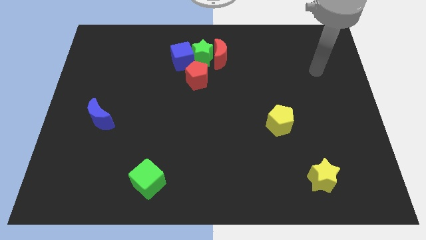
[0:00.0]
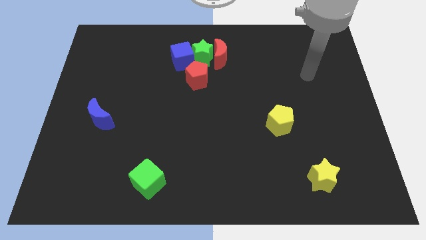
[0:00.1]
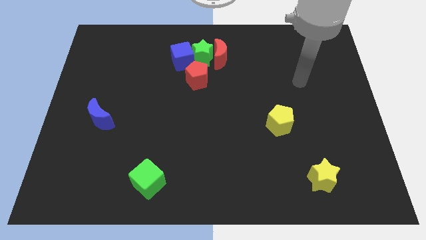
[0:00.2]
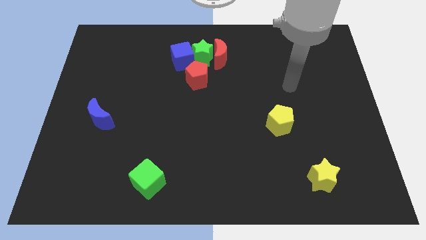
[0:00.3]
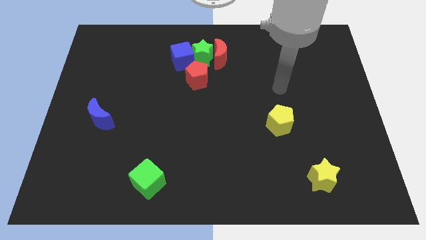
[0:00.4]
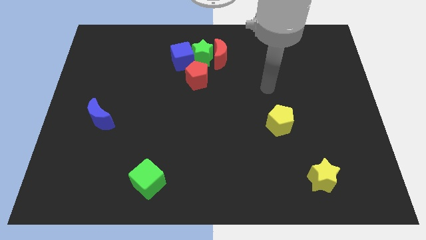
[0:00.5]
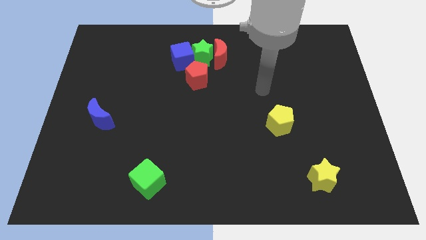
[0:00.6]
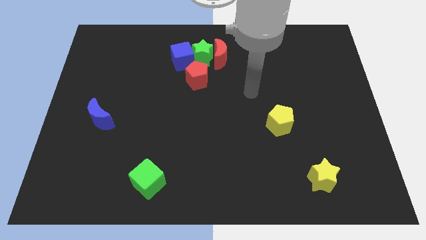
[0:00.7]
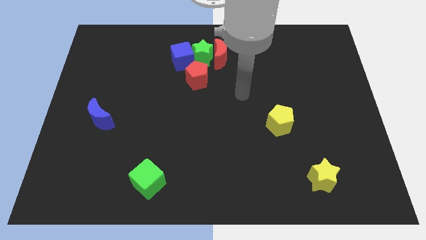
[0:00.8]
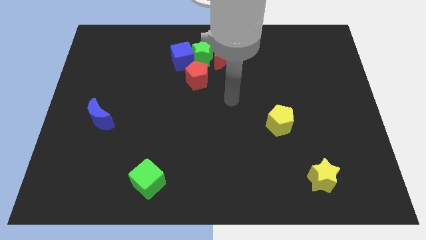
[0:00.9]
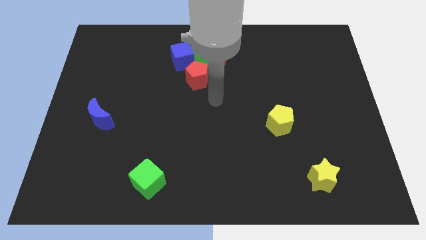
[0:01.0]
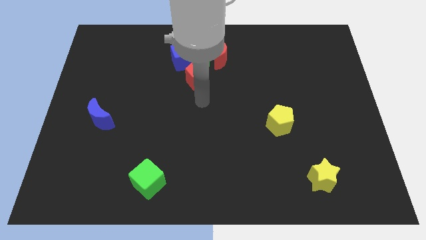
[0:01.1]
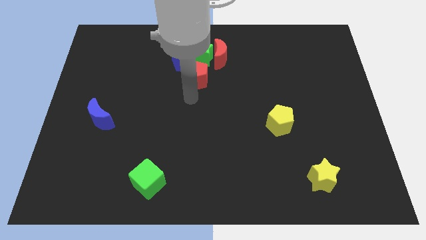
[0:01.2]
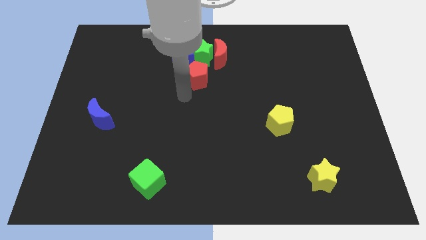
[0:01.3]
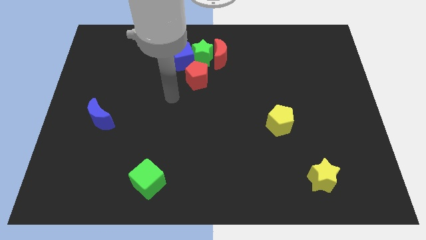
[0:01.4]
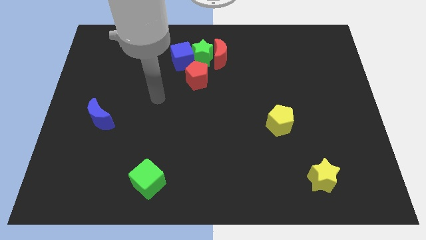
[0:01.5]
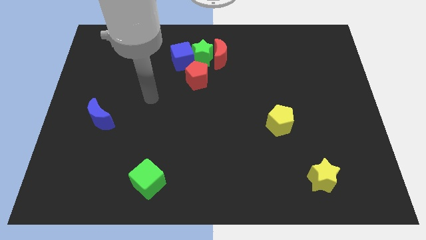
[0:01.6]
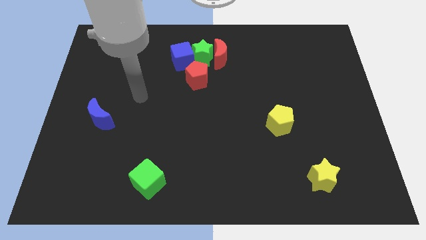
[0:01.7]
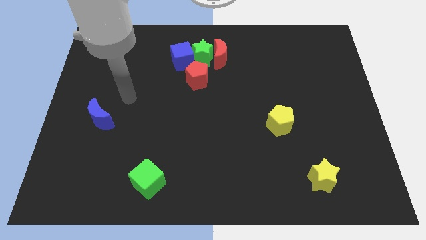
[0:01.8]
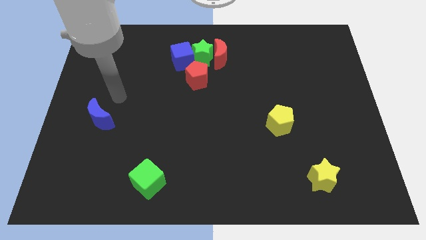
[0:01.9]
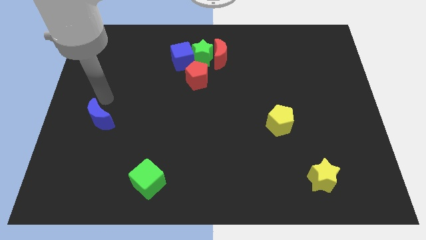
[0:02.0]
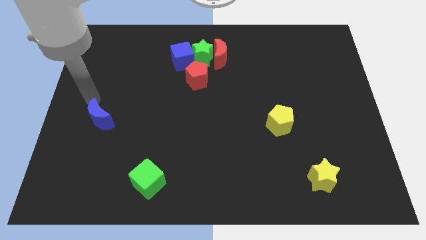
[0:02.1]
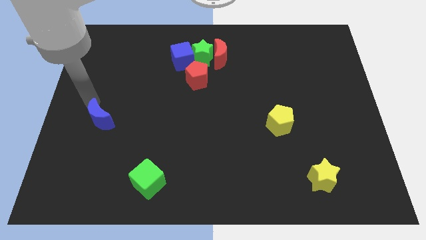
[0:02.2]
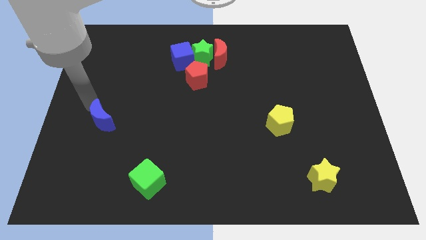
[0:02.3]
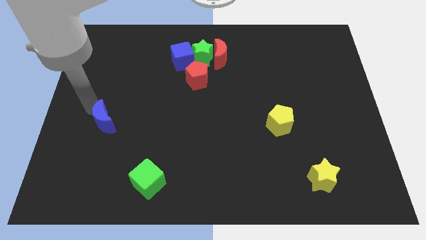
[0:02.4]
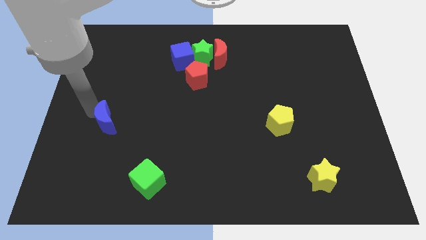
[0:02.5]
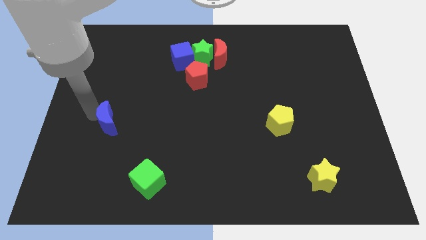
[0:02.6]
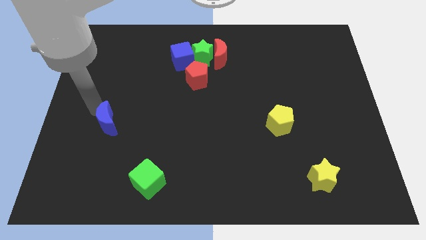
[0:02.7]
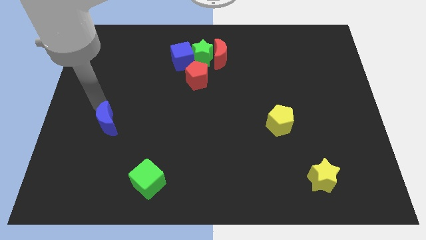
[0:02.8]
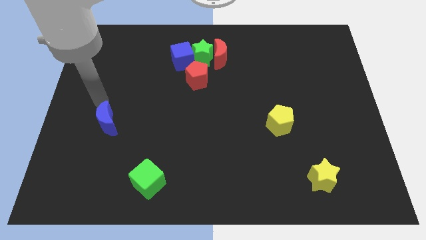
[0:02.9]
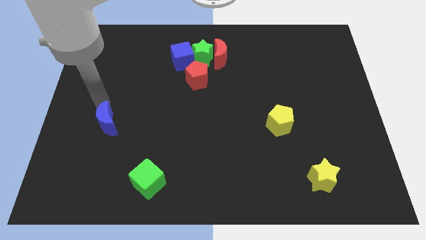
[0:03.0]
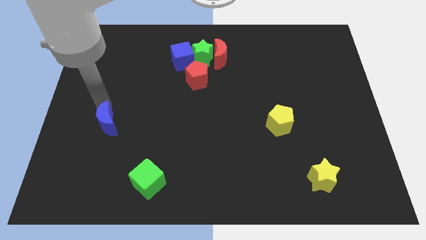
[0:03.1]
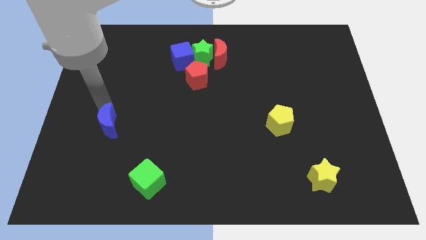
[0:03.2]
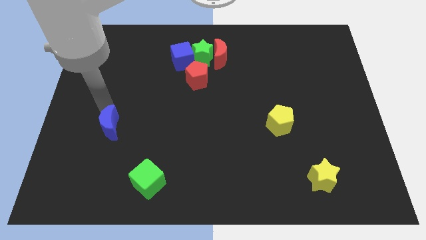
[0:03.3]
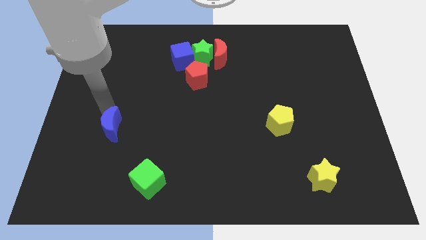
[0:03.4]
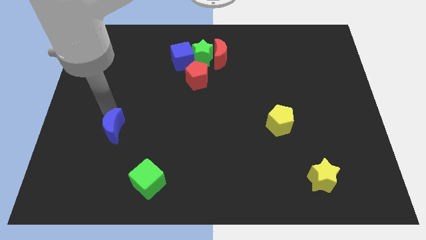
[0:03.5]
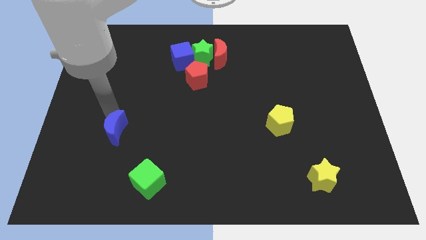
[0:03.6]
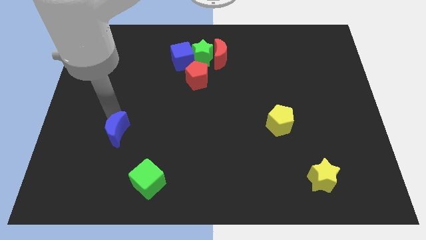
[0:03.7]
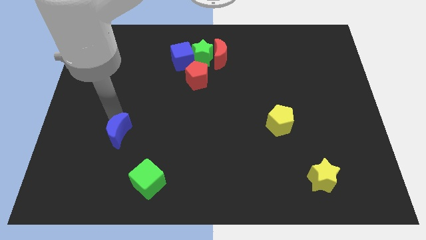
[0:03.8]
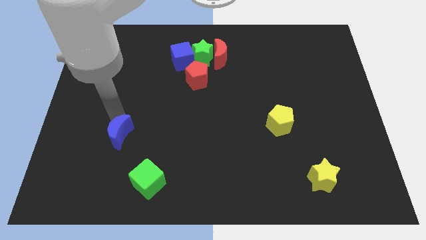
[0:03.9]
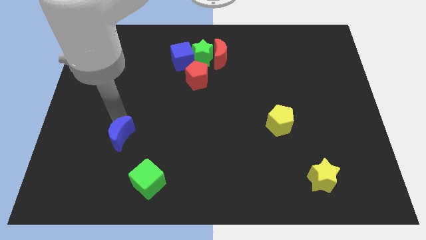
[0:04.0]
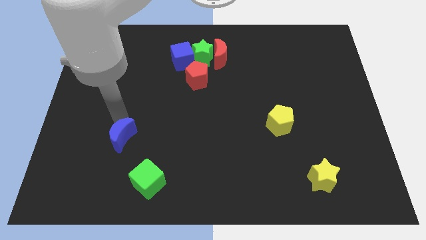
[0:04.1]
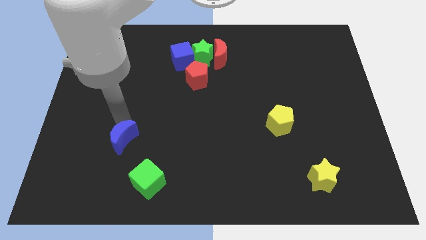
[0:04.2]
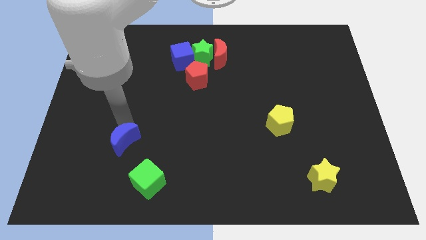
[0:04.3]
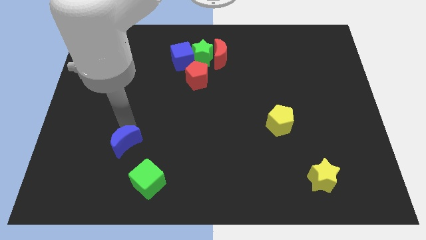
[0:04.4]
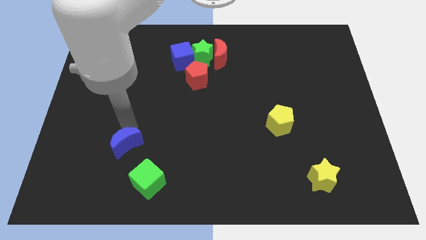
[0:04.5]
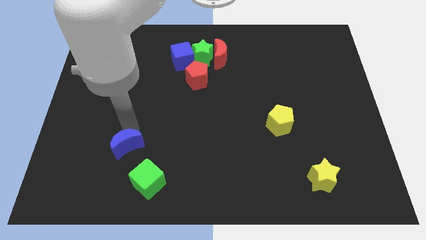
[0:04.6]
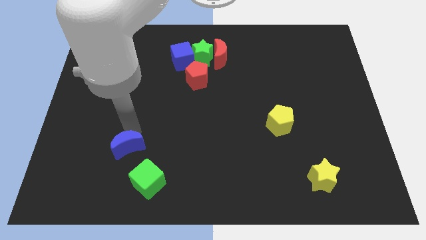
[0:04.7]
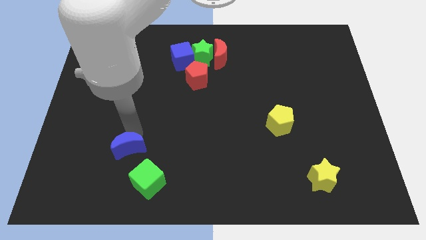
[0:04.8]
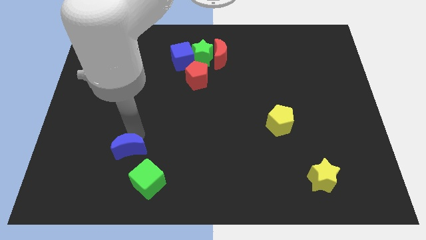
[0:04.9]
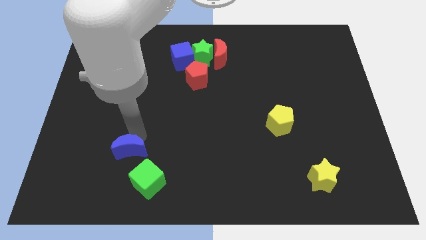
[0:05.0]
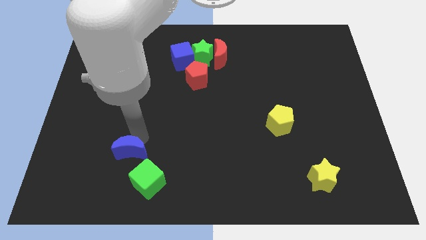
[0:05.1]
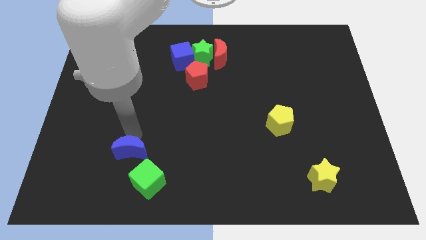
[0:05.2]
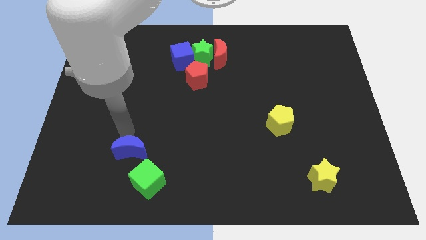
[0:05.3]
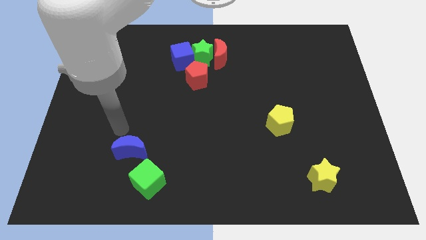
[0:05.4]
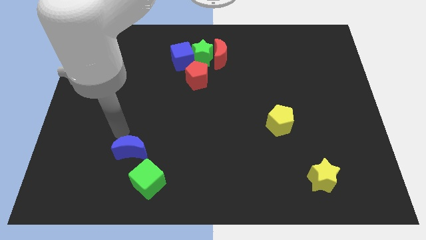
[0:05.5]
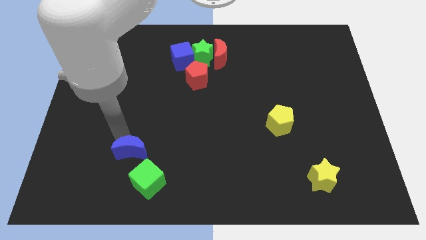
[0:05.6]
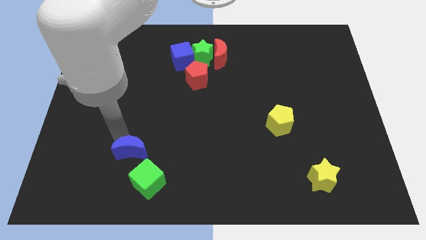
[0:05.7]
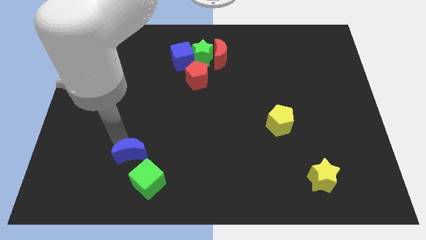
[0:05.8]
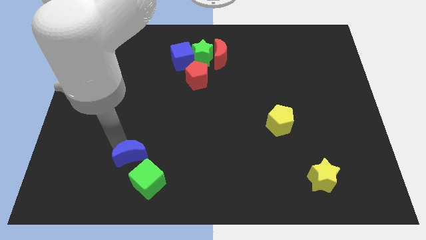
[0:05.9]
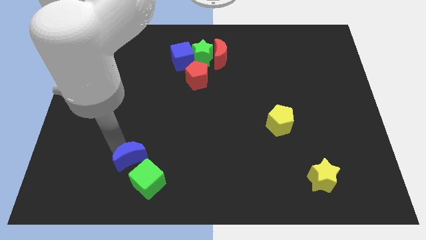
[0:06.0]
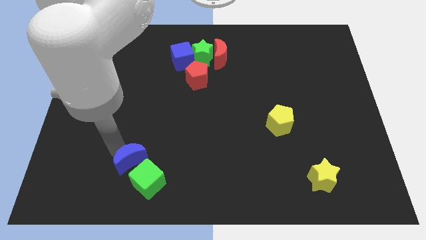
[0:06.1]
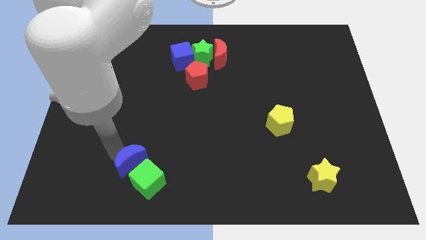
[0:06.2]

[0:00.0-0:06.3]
push the blue moon towards the green cube

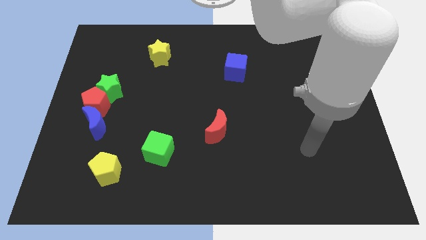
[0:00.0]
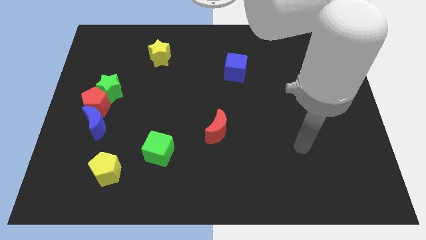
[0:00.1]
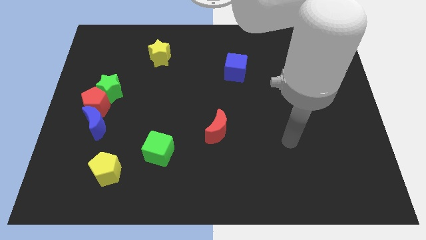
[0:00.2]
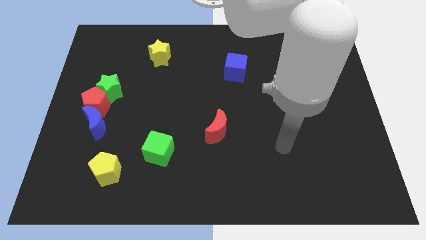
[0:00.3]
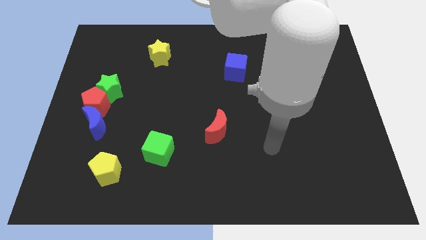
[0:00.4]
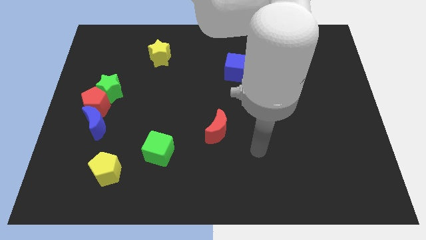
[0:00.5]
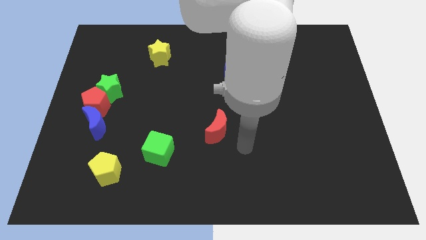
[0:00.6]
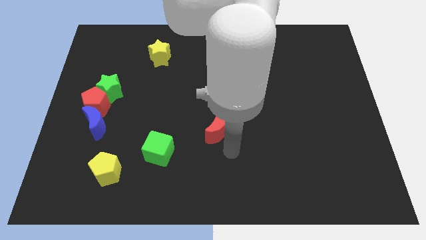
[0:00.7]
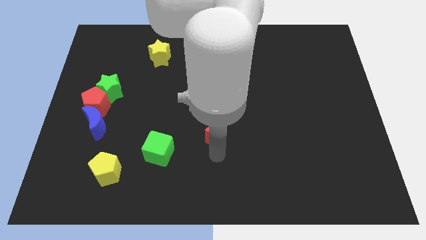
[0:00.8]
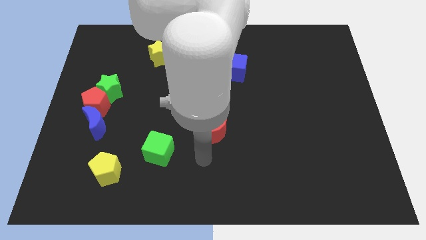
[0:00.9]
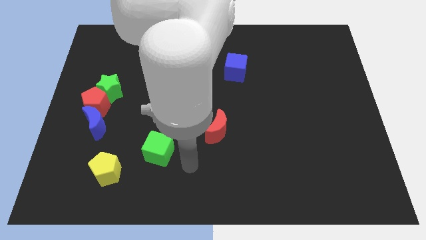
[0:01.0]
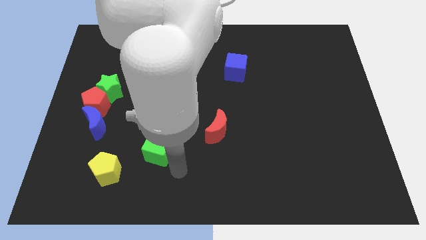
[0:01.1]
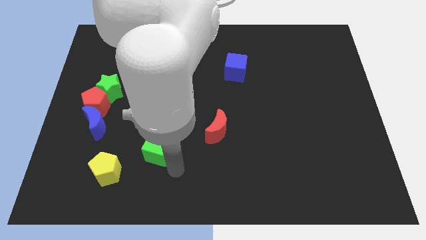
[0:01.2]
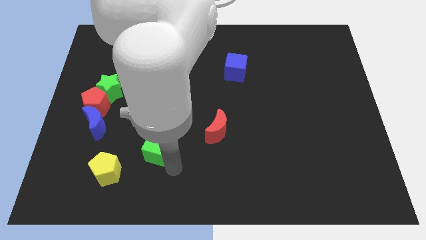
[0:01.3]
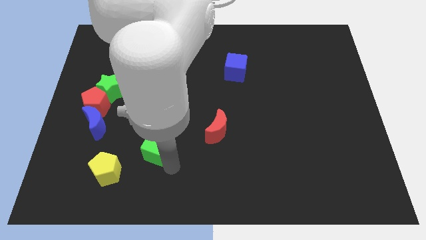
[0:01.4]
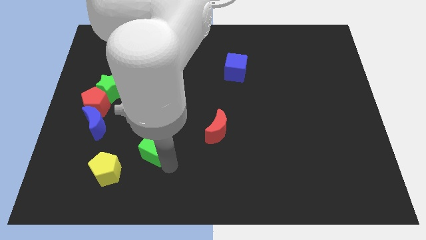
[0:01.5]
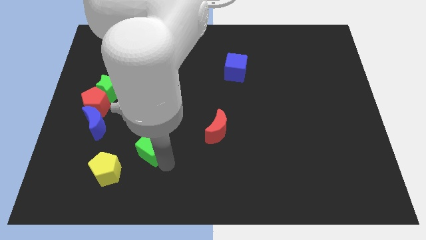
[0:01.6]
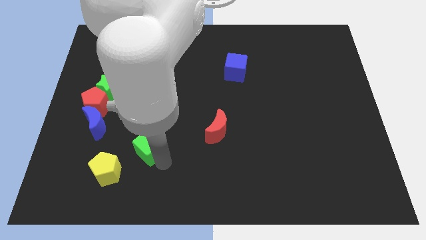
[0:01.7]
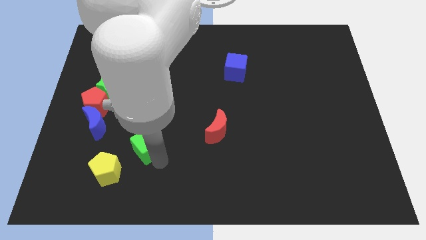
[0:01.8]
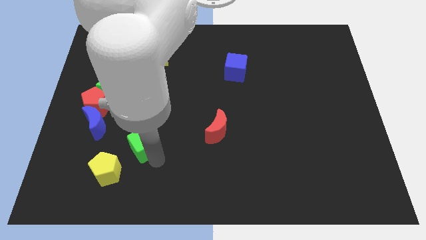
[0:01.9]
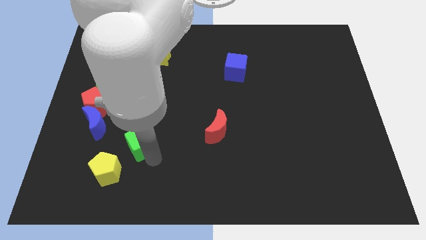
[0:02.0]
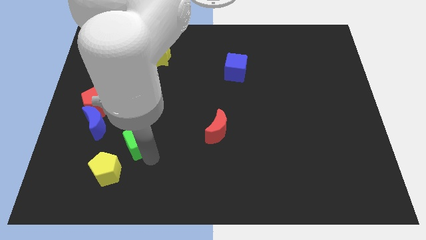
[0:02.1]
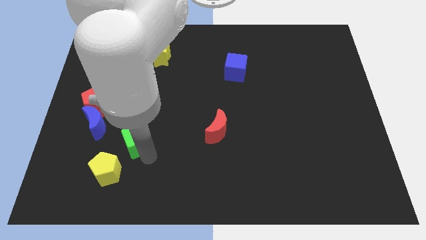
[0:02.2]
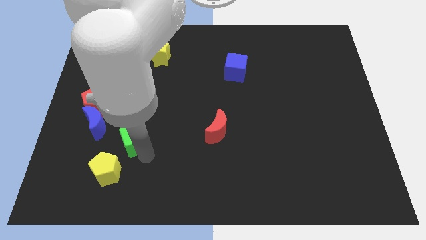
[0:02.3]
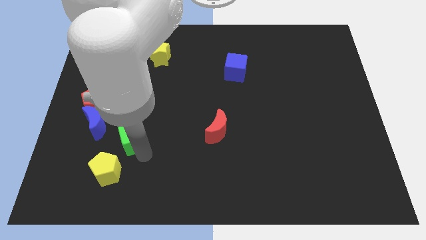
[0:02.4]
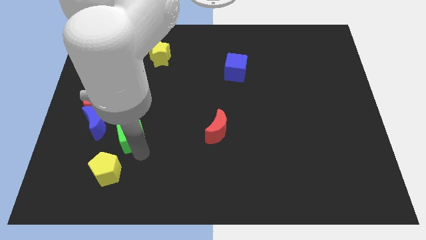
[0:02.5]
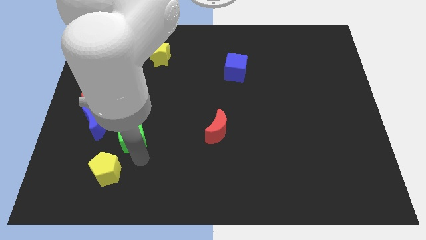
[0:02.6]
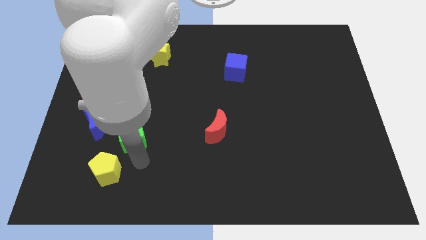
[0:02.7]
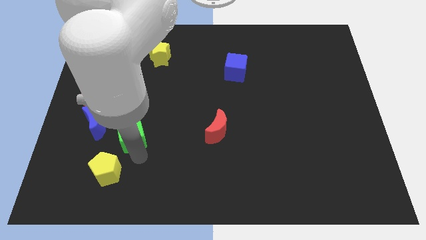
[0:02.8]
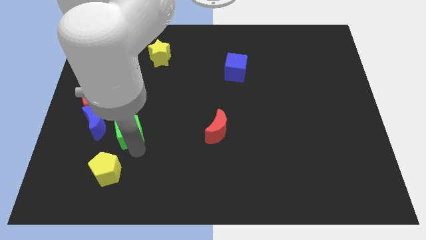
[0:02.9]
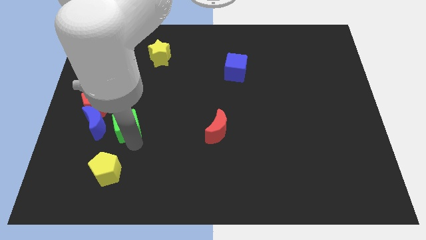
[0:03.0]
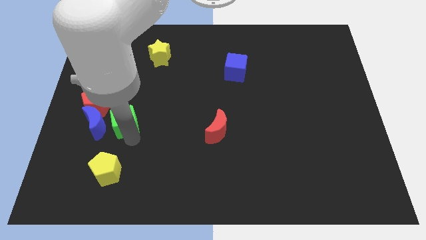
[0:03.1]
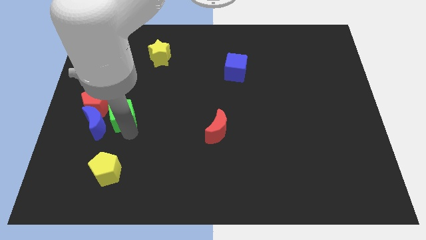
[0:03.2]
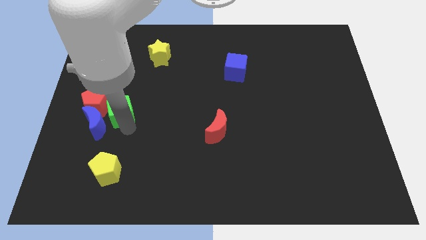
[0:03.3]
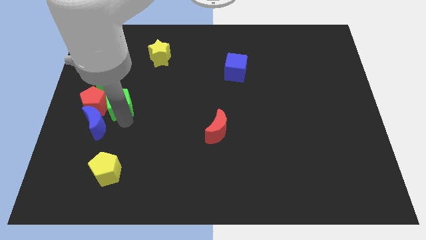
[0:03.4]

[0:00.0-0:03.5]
move the green cube next to the green star
